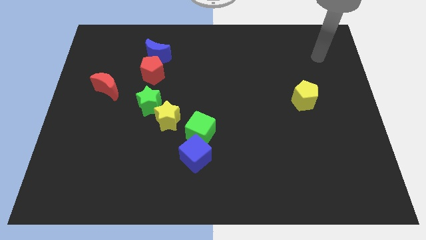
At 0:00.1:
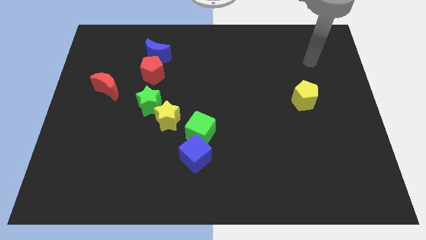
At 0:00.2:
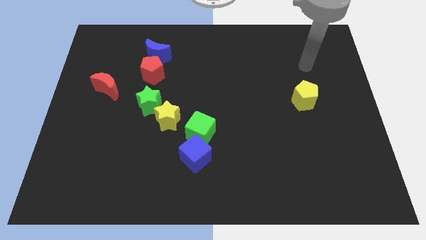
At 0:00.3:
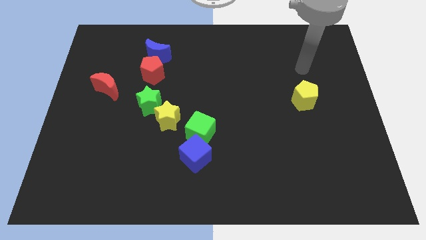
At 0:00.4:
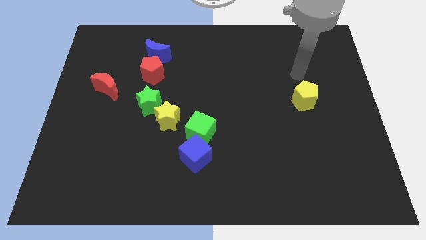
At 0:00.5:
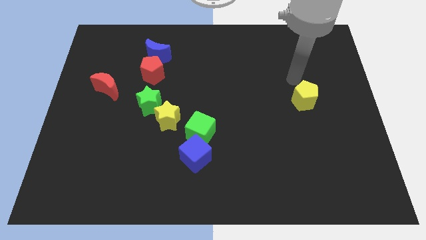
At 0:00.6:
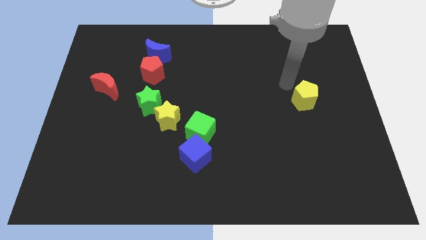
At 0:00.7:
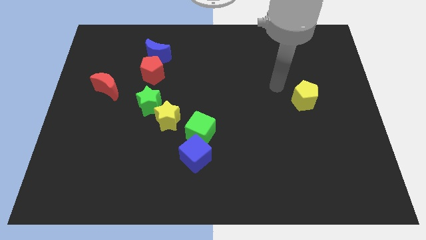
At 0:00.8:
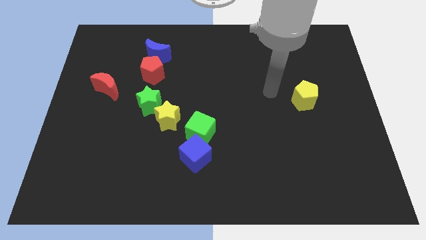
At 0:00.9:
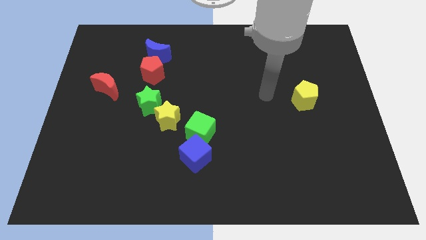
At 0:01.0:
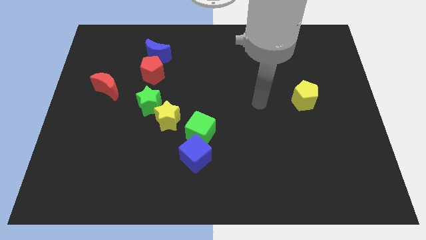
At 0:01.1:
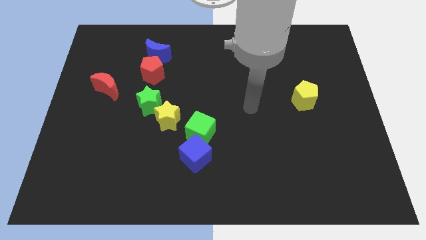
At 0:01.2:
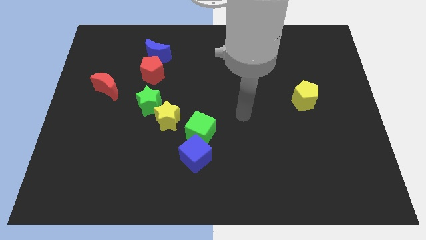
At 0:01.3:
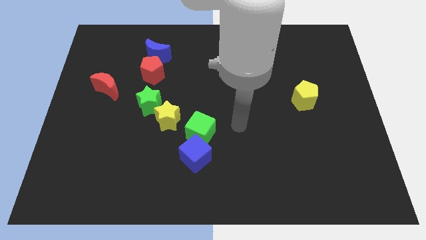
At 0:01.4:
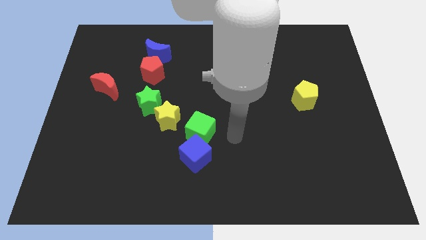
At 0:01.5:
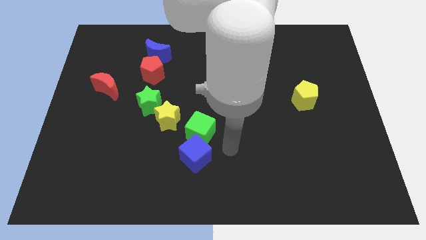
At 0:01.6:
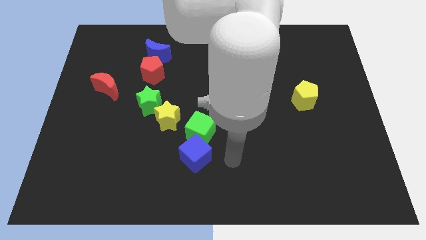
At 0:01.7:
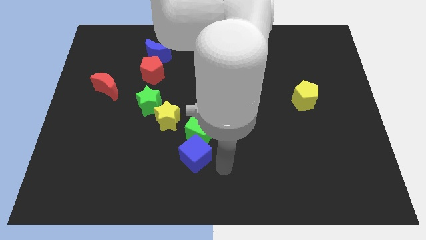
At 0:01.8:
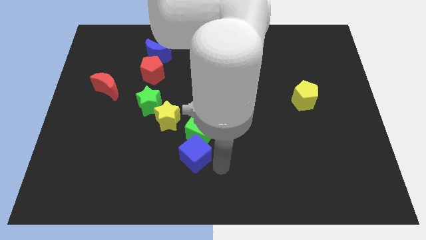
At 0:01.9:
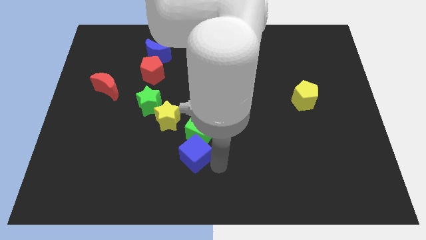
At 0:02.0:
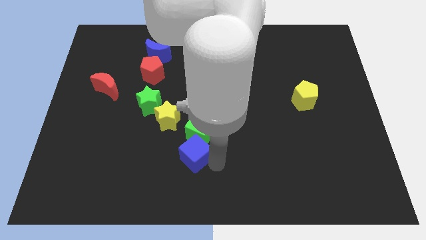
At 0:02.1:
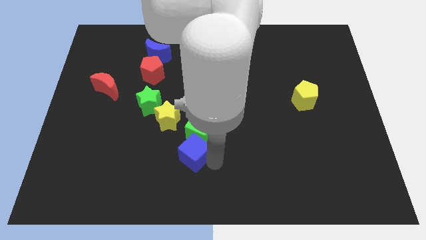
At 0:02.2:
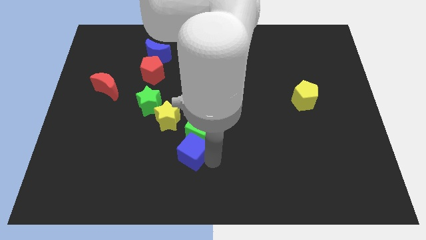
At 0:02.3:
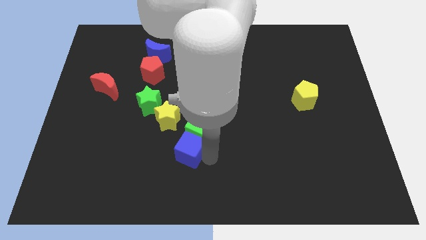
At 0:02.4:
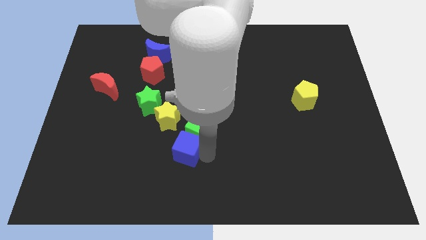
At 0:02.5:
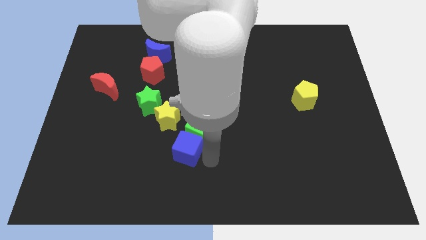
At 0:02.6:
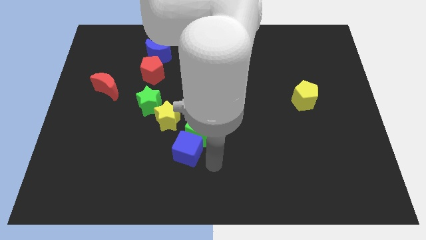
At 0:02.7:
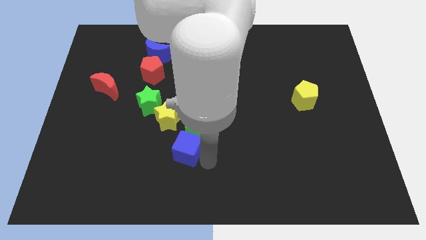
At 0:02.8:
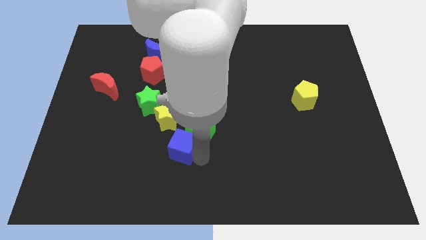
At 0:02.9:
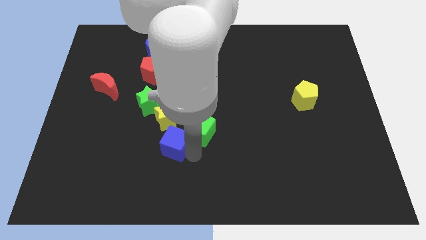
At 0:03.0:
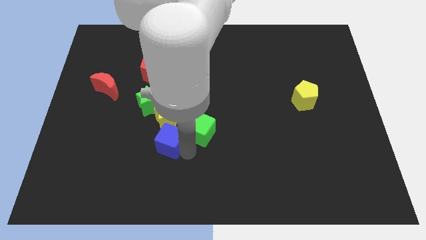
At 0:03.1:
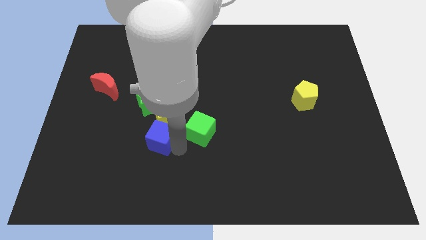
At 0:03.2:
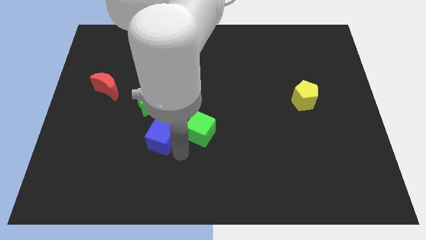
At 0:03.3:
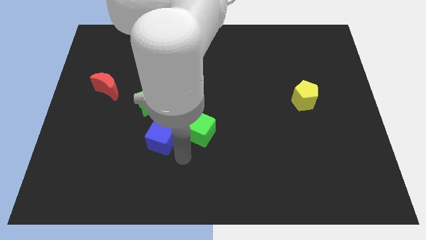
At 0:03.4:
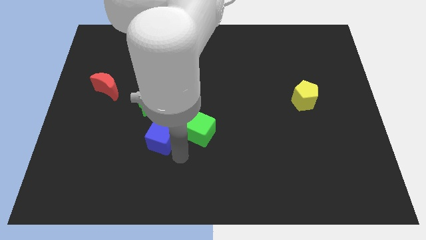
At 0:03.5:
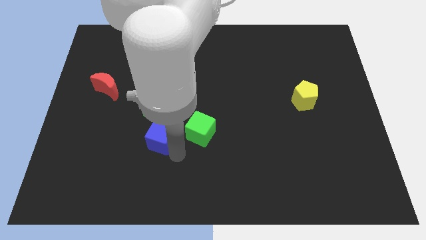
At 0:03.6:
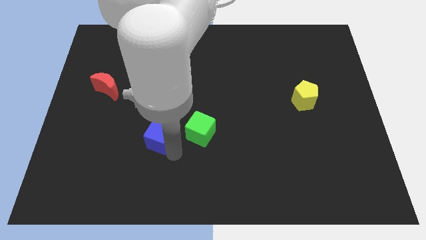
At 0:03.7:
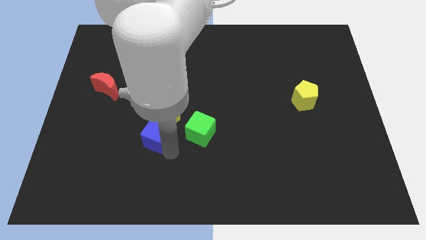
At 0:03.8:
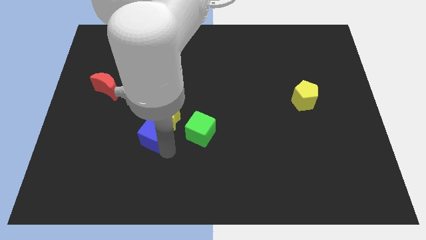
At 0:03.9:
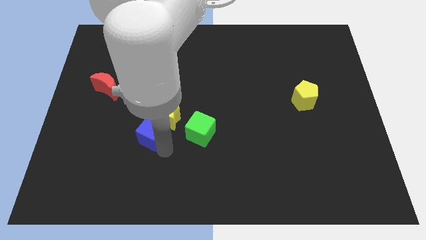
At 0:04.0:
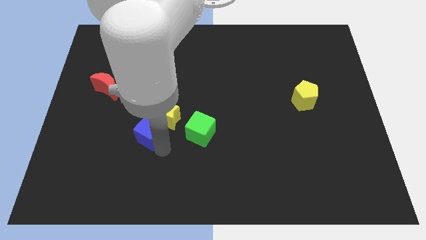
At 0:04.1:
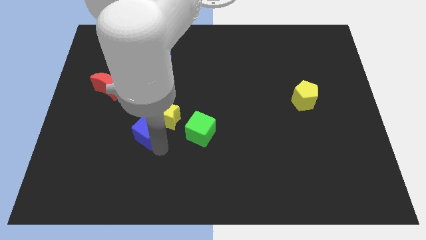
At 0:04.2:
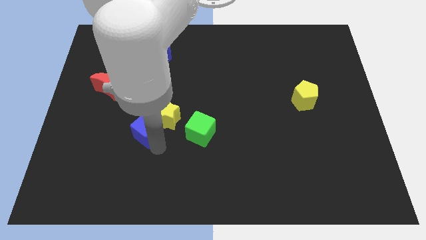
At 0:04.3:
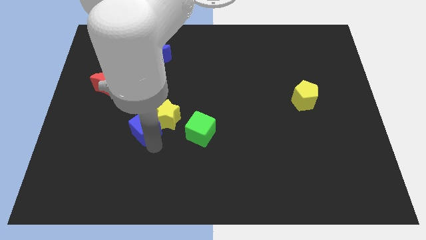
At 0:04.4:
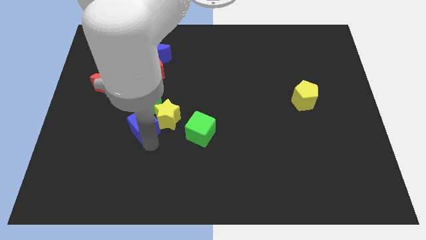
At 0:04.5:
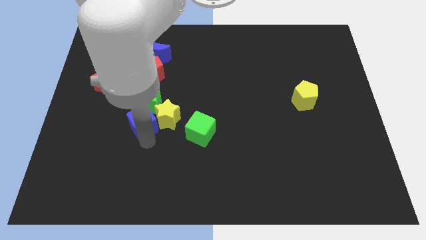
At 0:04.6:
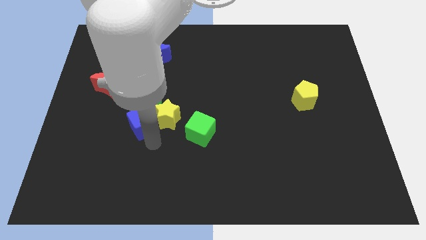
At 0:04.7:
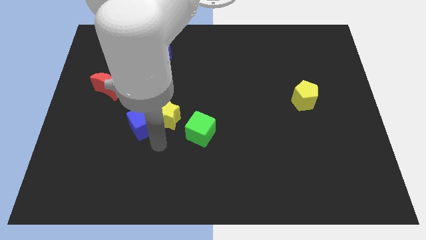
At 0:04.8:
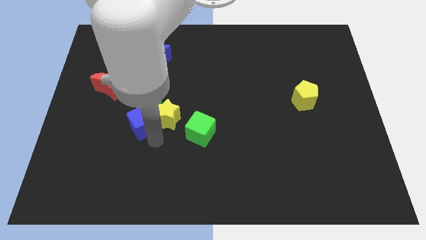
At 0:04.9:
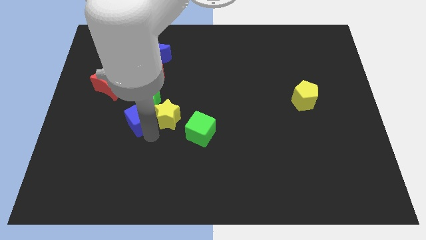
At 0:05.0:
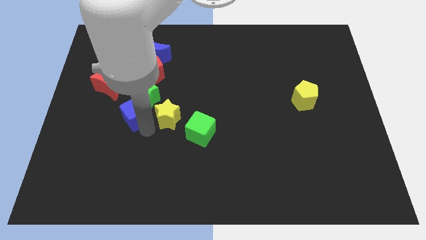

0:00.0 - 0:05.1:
move the blue cube diagonally down and to the right of the red moon

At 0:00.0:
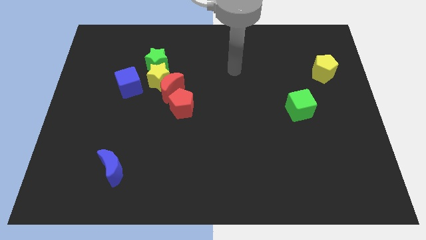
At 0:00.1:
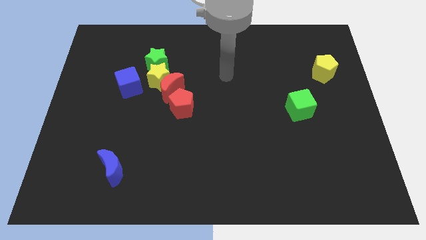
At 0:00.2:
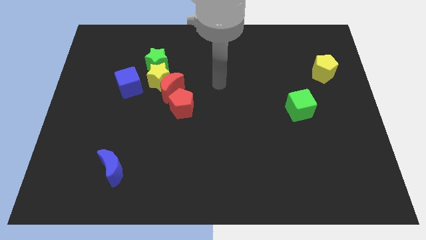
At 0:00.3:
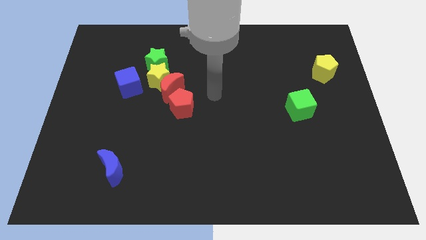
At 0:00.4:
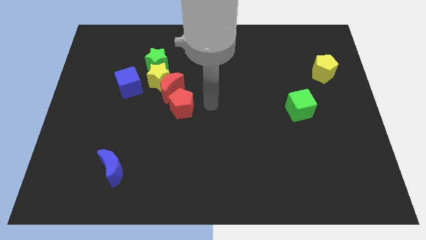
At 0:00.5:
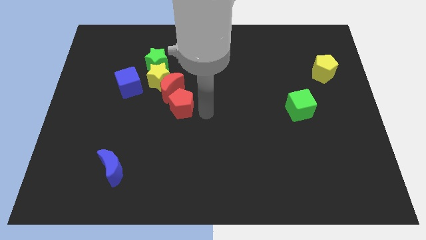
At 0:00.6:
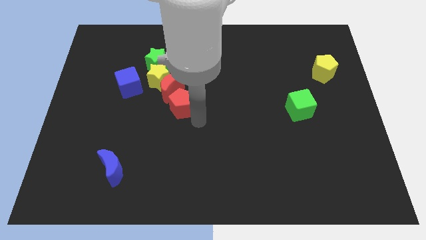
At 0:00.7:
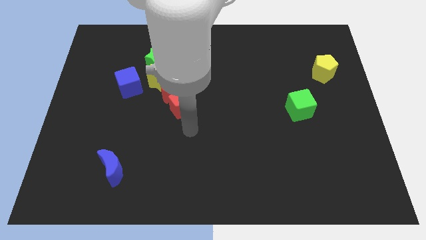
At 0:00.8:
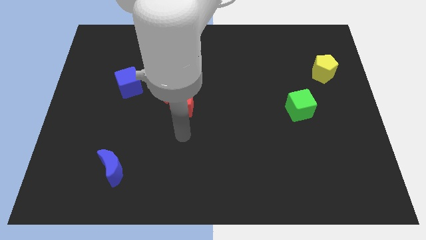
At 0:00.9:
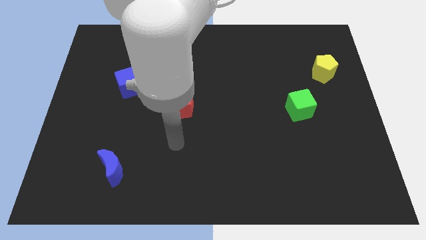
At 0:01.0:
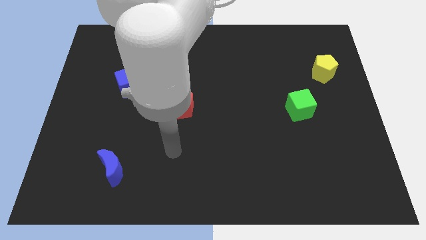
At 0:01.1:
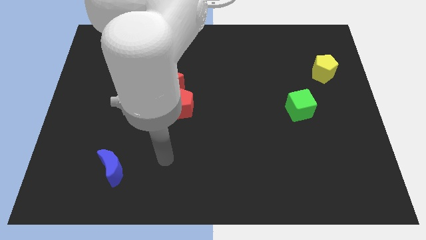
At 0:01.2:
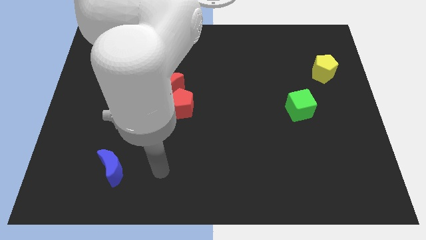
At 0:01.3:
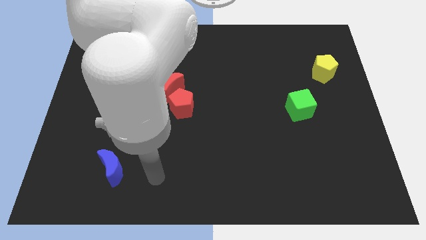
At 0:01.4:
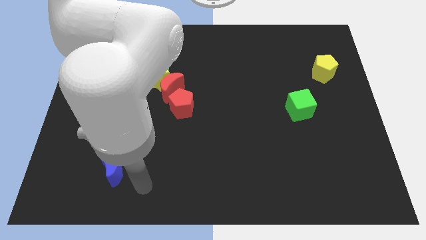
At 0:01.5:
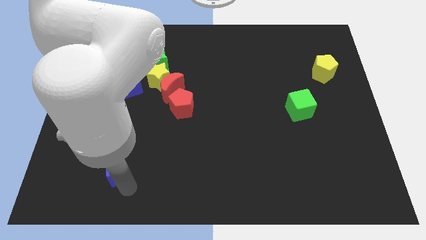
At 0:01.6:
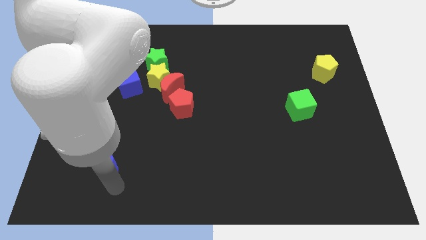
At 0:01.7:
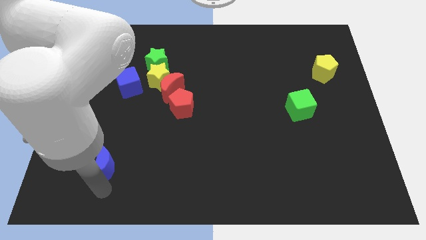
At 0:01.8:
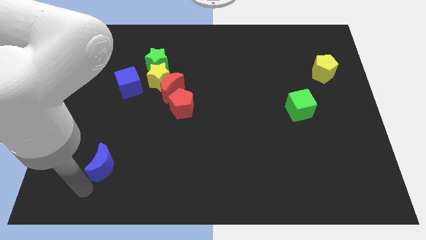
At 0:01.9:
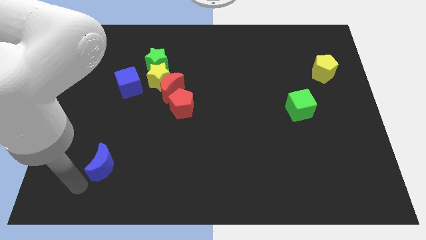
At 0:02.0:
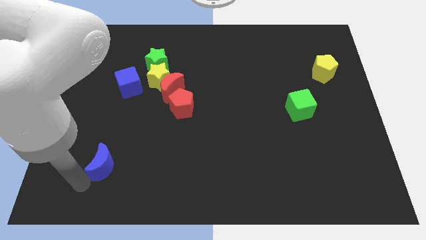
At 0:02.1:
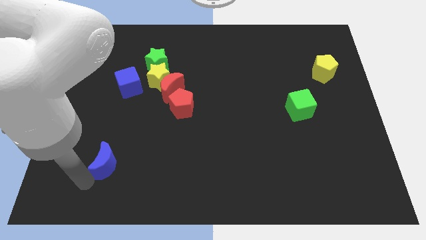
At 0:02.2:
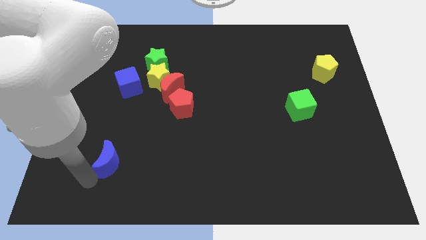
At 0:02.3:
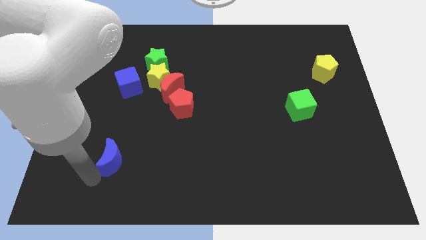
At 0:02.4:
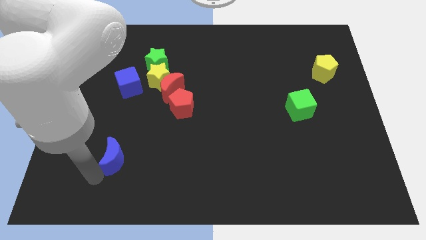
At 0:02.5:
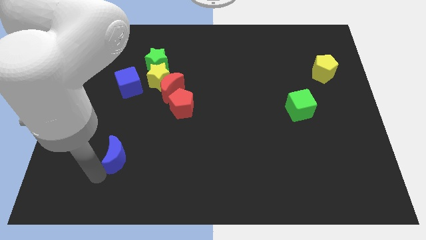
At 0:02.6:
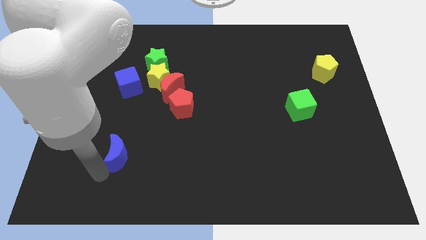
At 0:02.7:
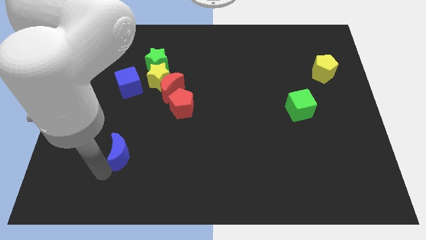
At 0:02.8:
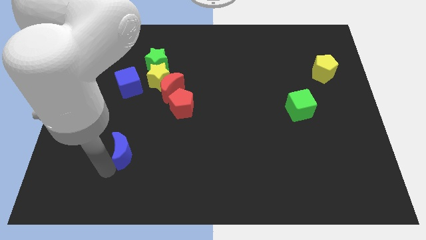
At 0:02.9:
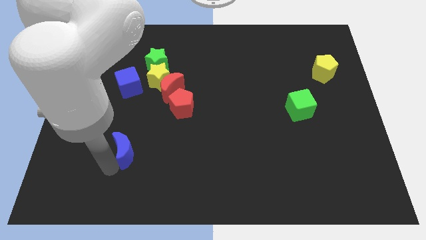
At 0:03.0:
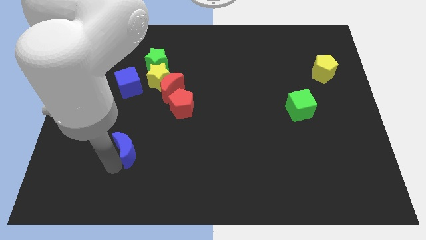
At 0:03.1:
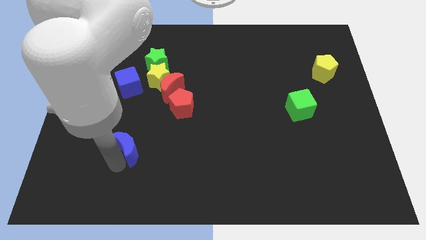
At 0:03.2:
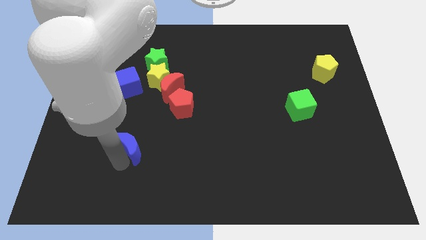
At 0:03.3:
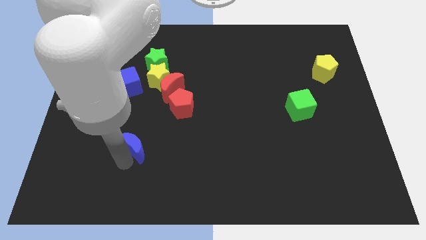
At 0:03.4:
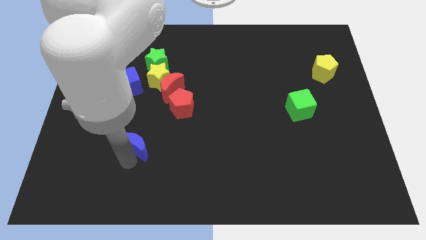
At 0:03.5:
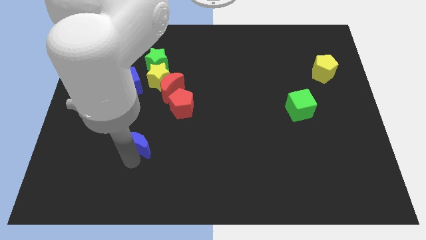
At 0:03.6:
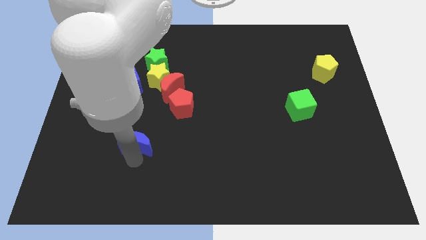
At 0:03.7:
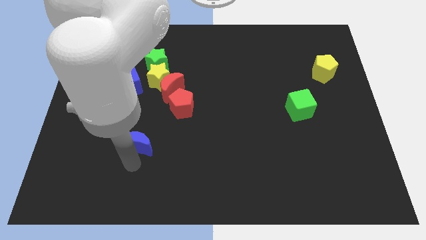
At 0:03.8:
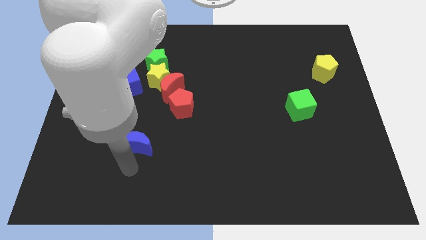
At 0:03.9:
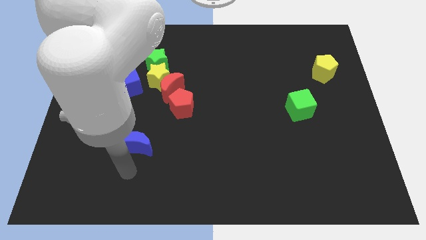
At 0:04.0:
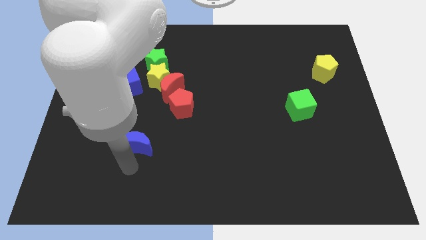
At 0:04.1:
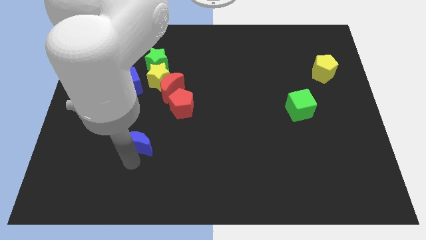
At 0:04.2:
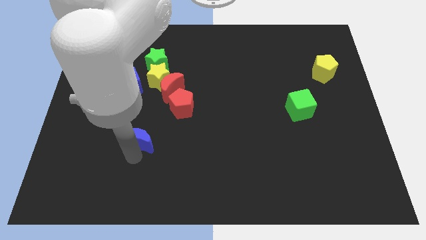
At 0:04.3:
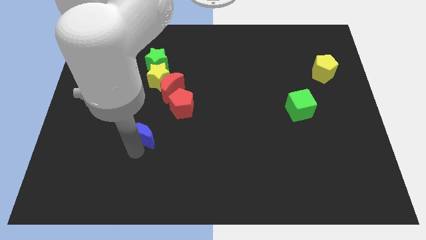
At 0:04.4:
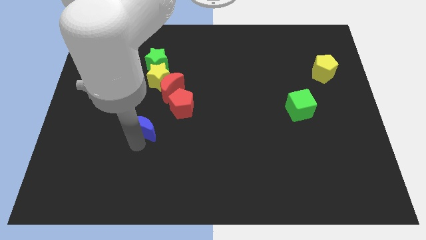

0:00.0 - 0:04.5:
put the blue moon below the yellow star
